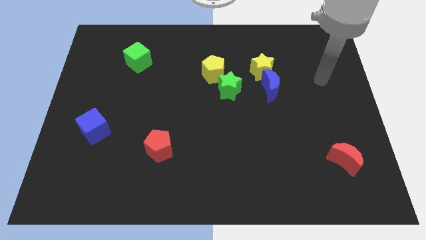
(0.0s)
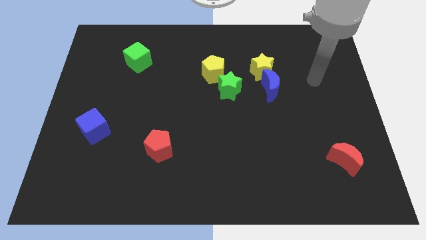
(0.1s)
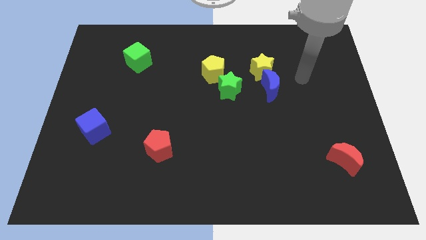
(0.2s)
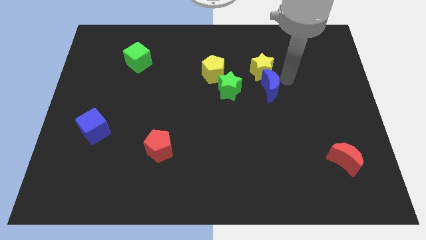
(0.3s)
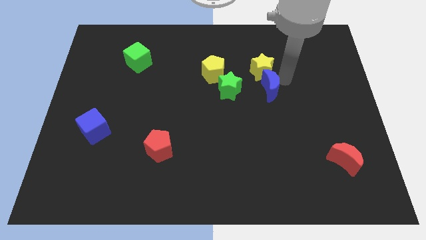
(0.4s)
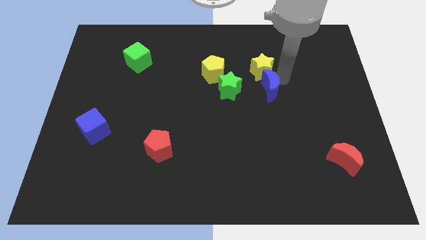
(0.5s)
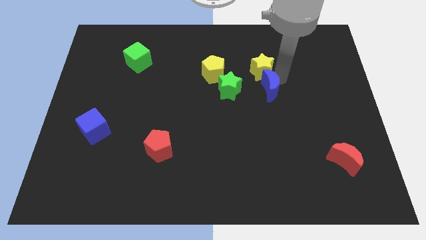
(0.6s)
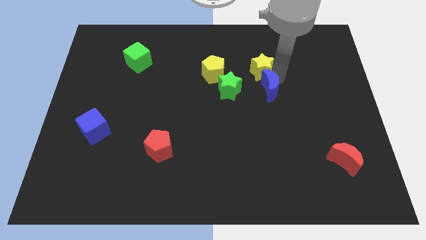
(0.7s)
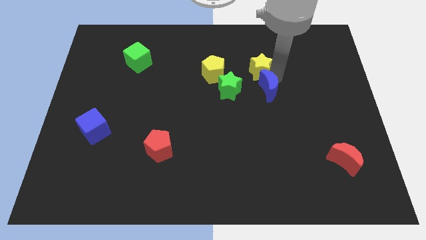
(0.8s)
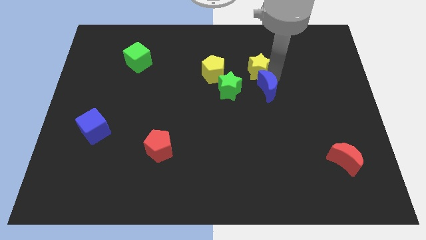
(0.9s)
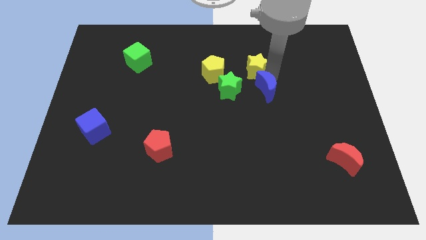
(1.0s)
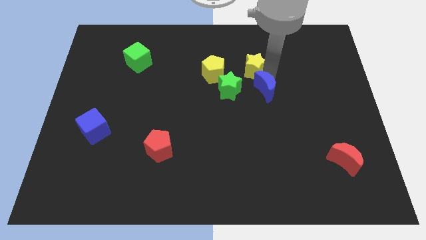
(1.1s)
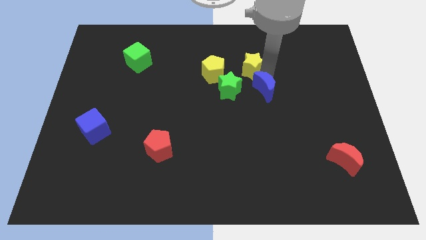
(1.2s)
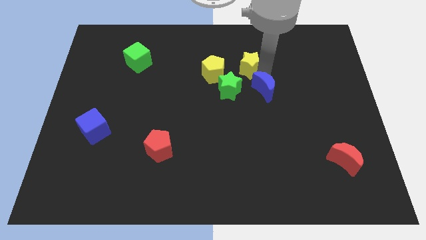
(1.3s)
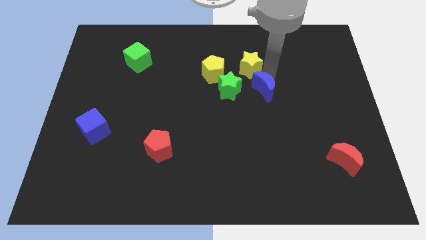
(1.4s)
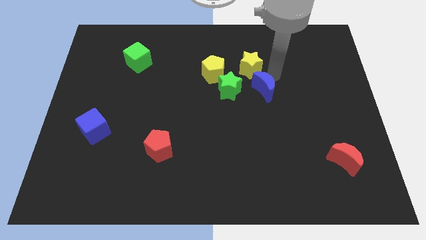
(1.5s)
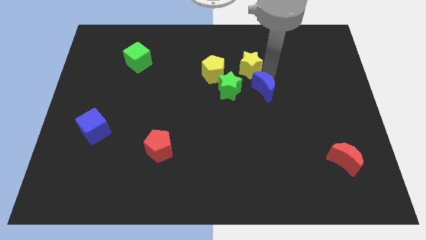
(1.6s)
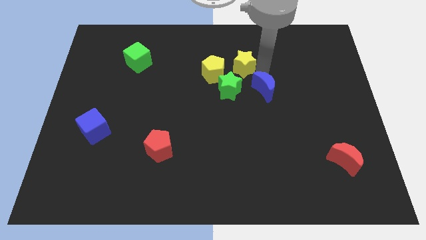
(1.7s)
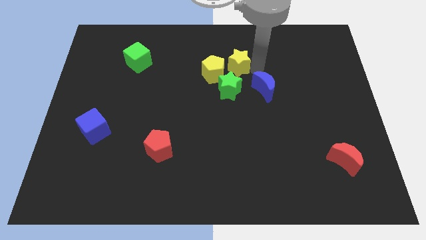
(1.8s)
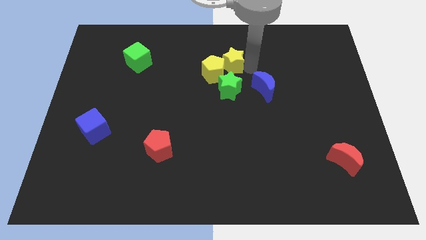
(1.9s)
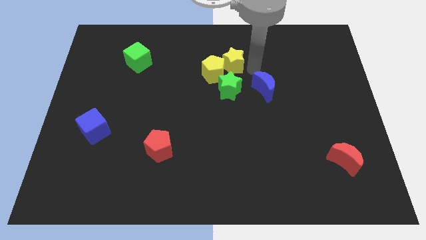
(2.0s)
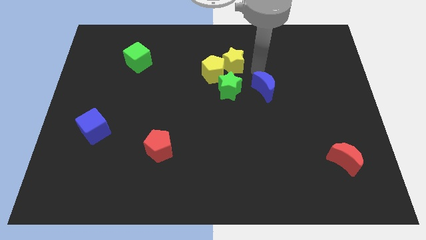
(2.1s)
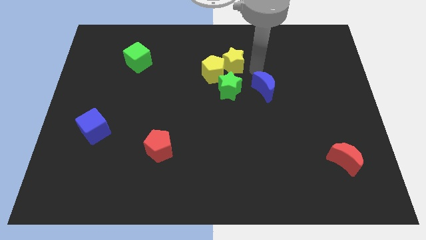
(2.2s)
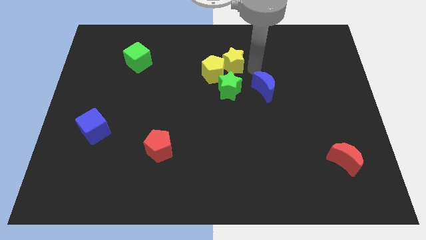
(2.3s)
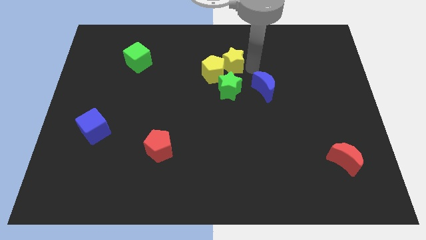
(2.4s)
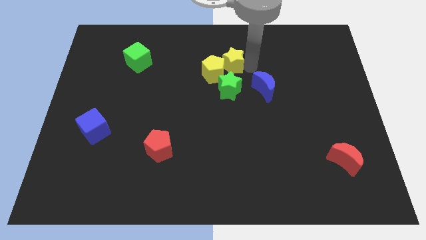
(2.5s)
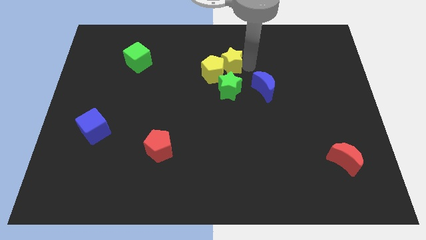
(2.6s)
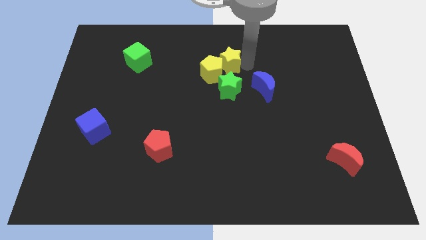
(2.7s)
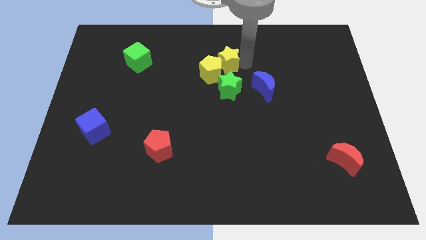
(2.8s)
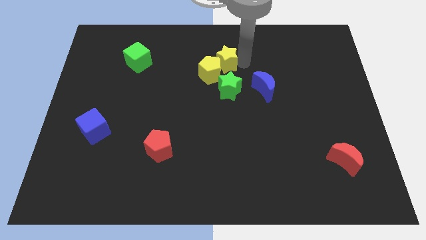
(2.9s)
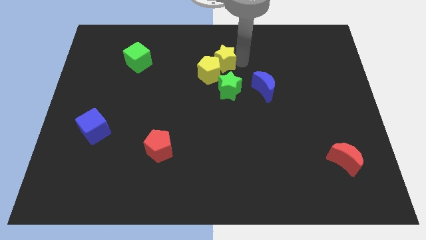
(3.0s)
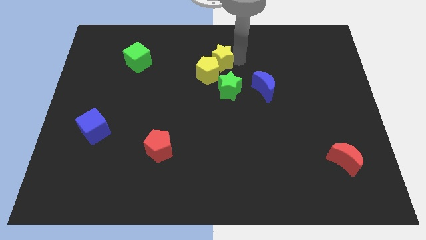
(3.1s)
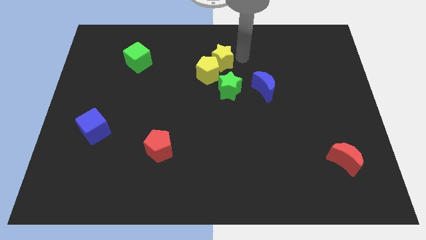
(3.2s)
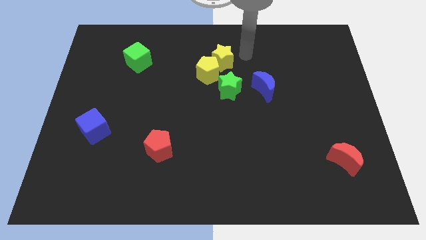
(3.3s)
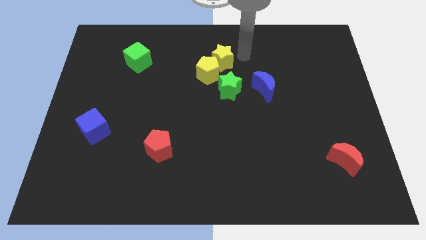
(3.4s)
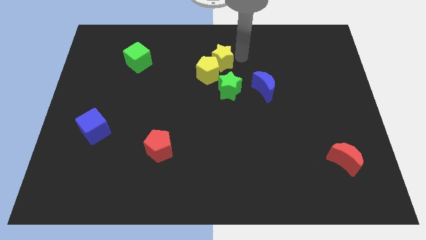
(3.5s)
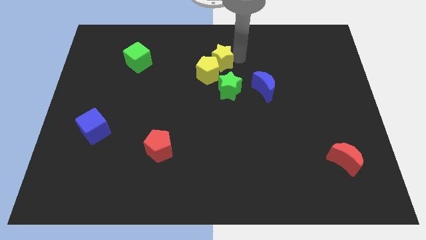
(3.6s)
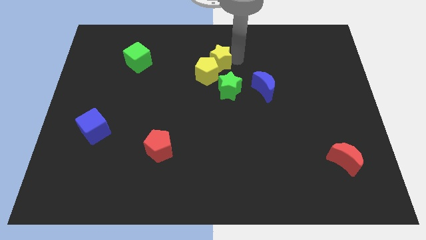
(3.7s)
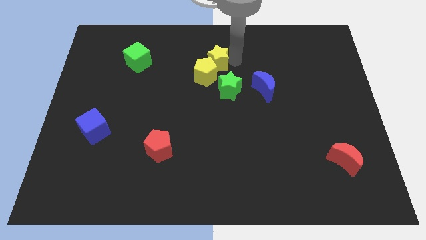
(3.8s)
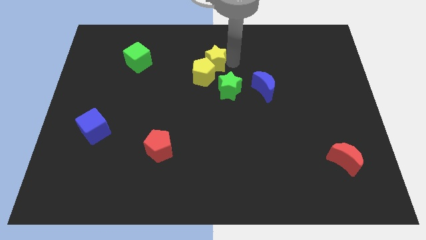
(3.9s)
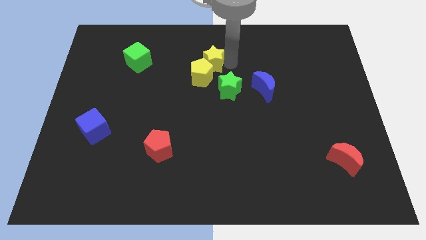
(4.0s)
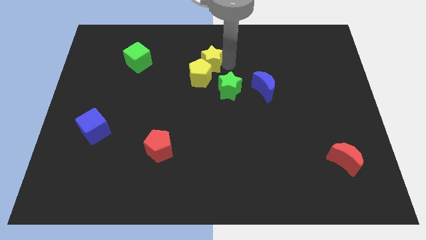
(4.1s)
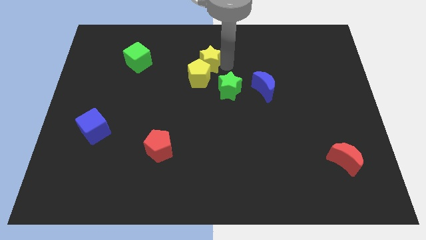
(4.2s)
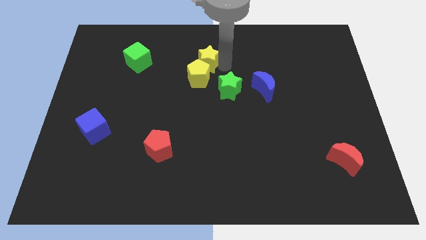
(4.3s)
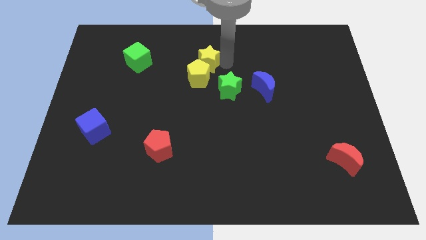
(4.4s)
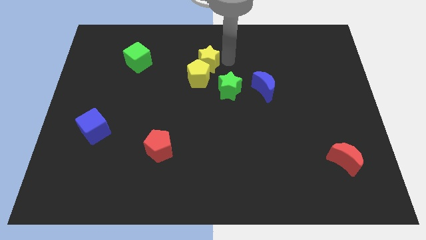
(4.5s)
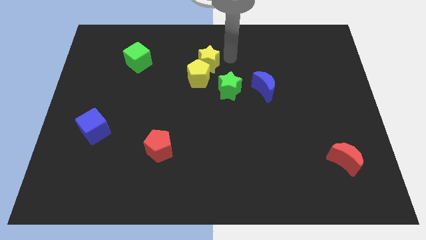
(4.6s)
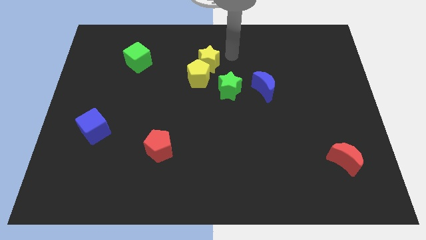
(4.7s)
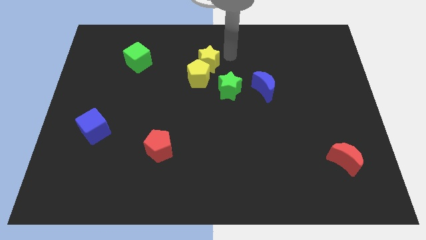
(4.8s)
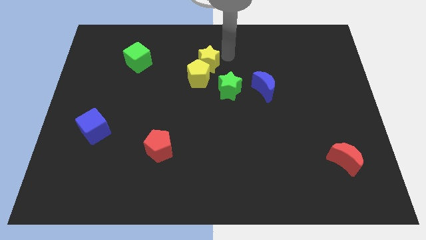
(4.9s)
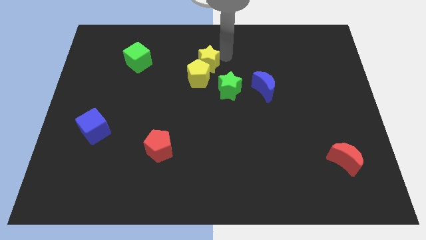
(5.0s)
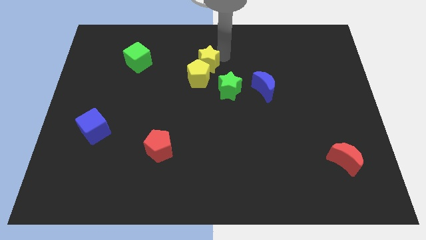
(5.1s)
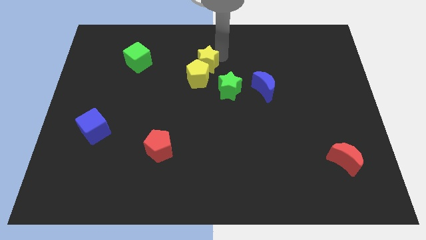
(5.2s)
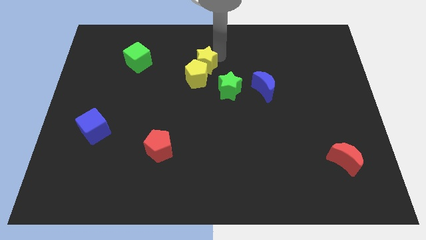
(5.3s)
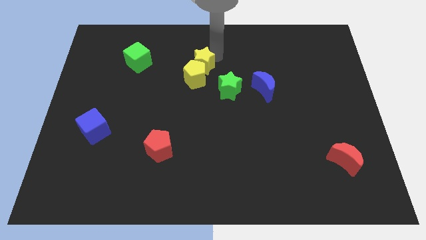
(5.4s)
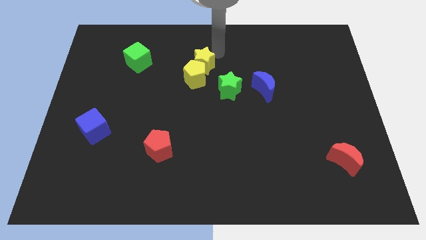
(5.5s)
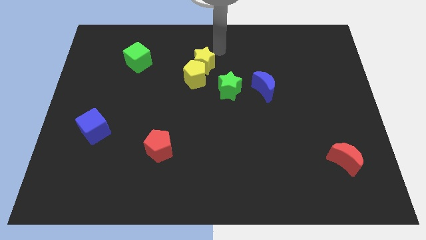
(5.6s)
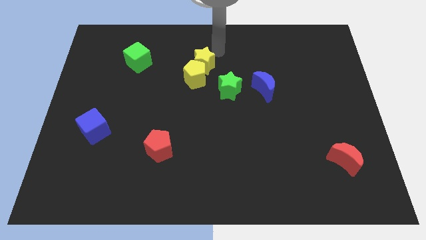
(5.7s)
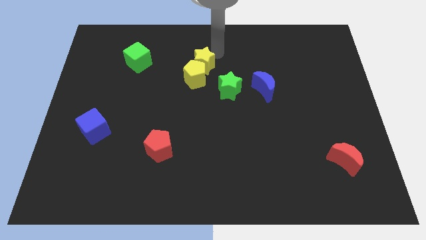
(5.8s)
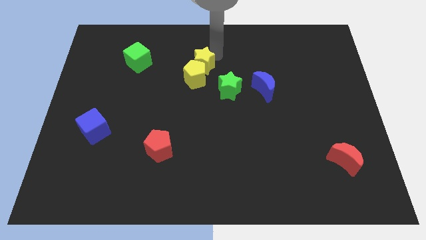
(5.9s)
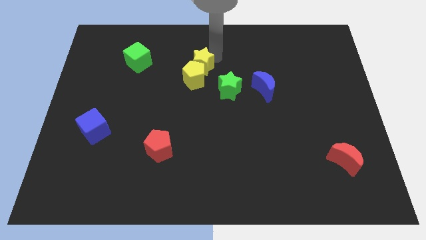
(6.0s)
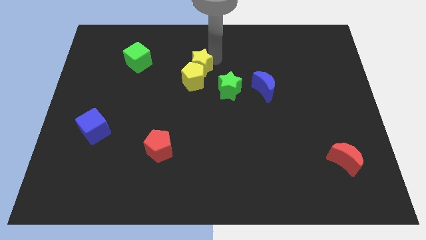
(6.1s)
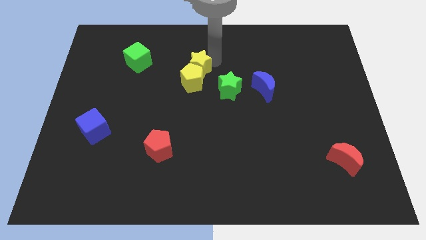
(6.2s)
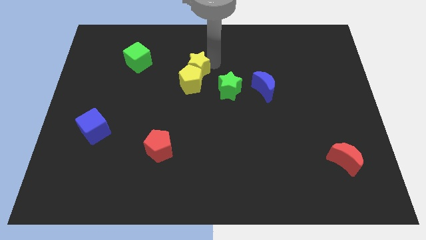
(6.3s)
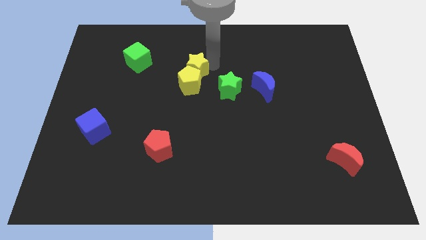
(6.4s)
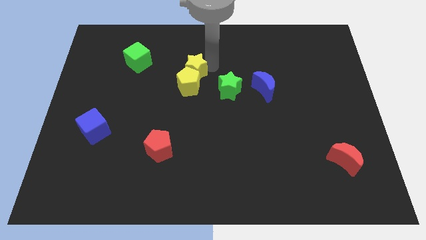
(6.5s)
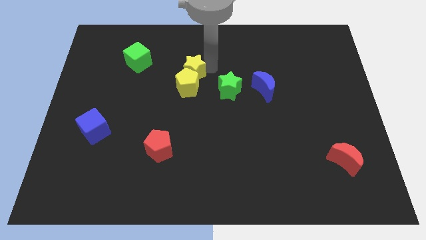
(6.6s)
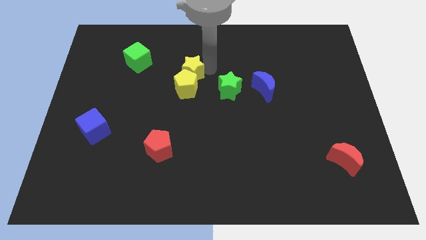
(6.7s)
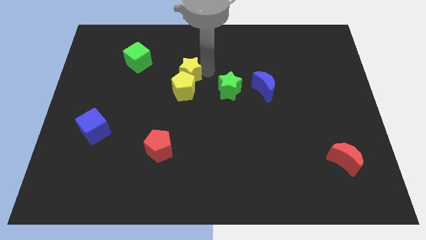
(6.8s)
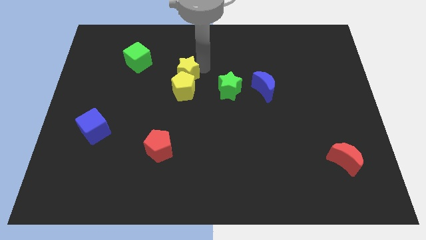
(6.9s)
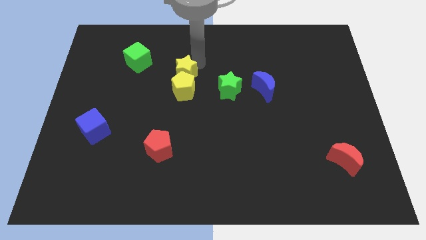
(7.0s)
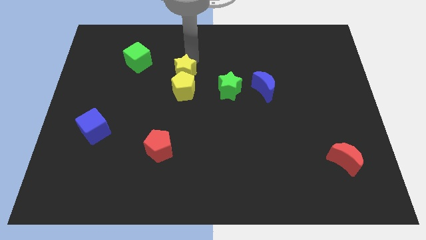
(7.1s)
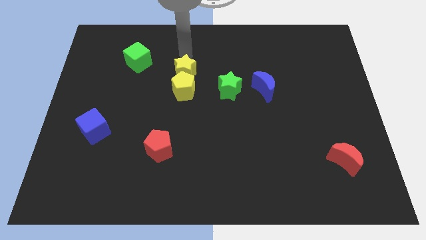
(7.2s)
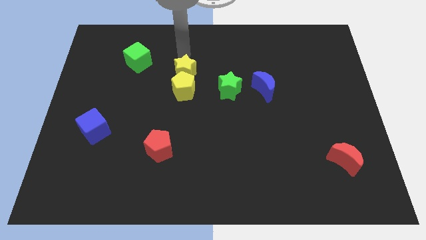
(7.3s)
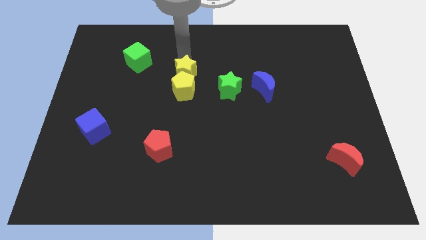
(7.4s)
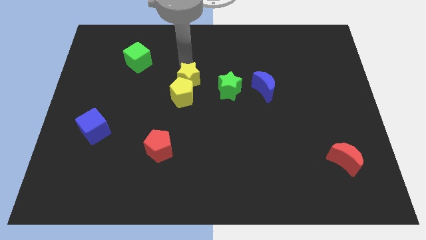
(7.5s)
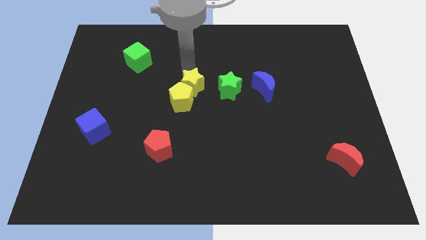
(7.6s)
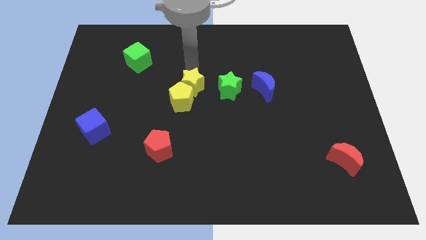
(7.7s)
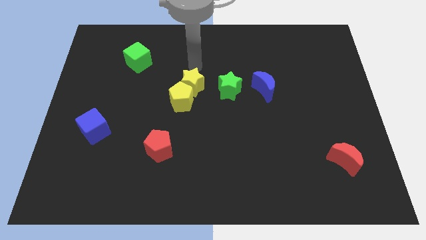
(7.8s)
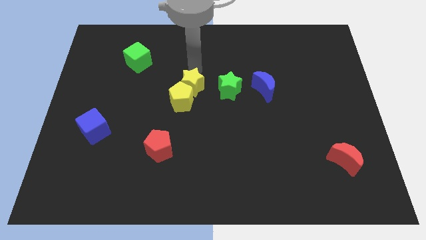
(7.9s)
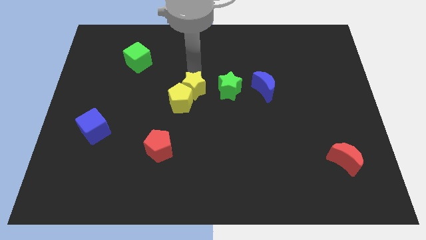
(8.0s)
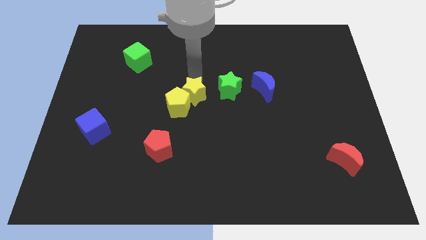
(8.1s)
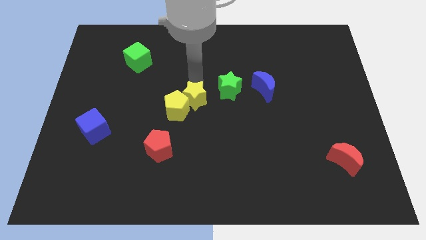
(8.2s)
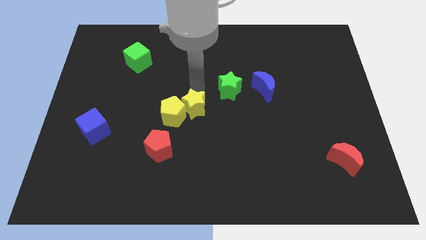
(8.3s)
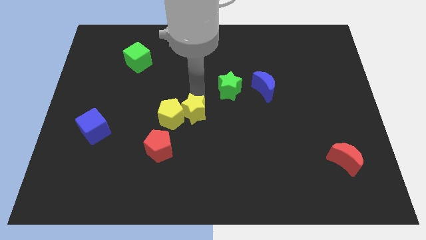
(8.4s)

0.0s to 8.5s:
put the yellow star to the top right of the red pentagon
